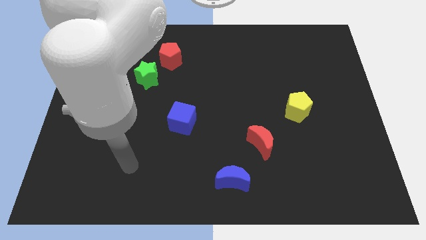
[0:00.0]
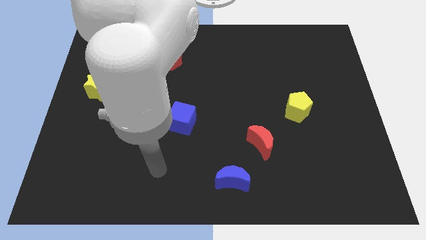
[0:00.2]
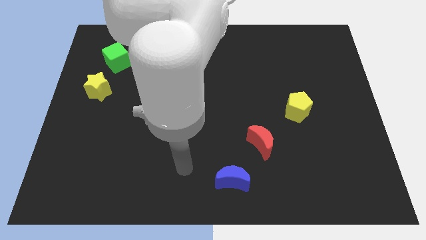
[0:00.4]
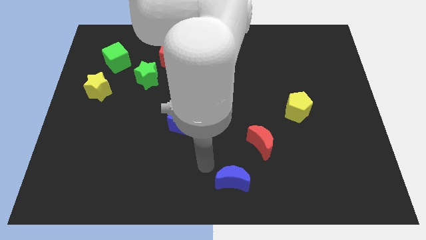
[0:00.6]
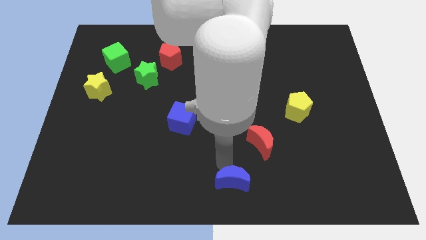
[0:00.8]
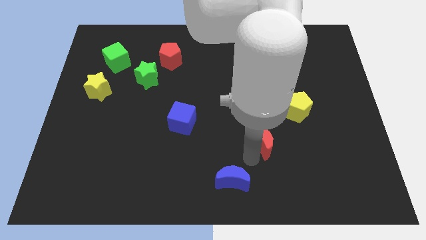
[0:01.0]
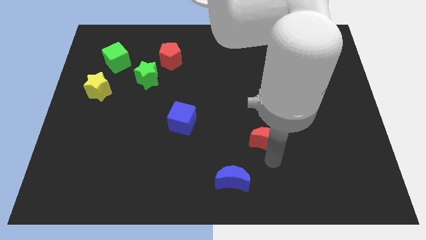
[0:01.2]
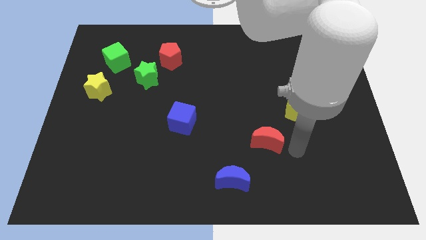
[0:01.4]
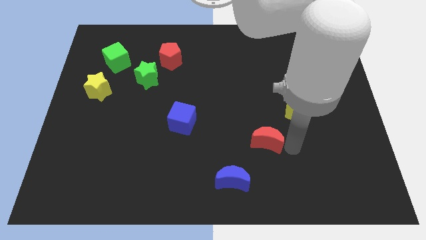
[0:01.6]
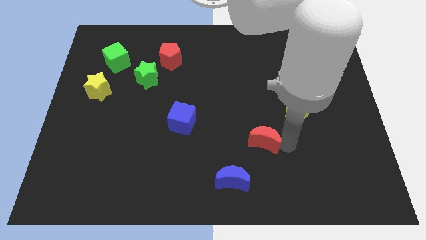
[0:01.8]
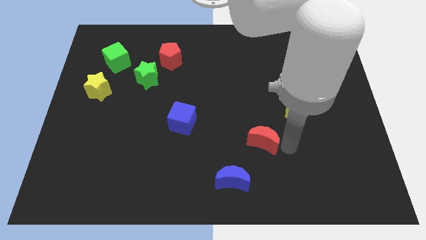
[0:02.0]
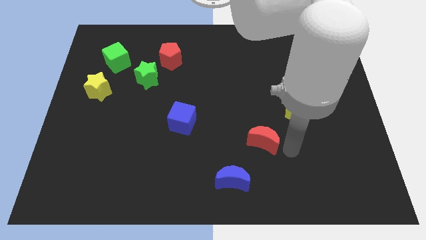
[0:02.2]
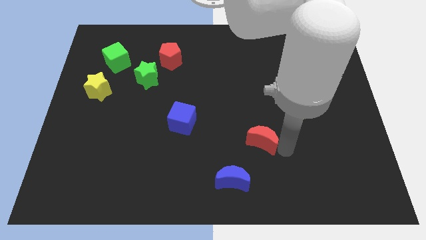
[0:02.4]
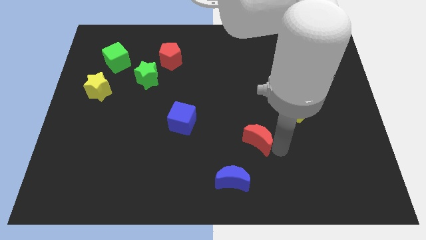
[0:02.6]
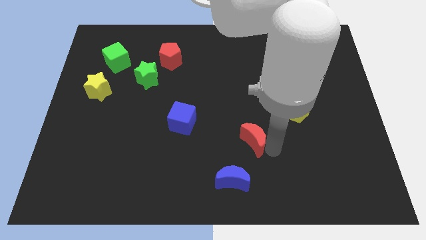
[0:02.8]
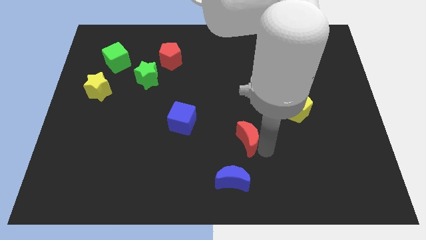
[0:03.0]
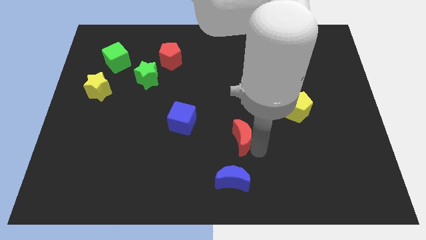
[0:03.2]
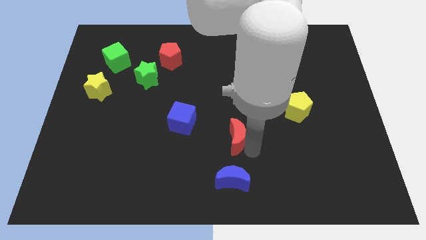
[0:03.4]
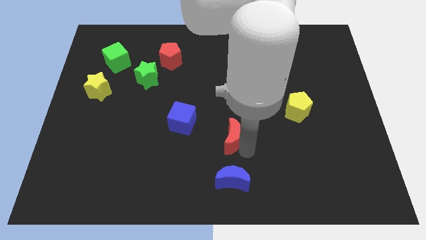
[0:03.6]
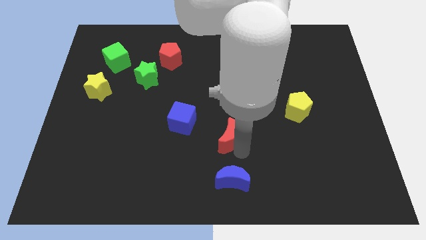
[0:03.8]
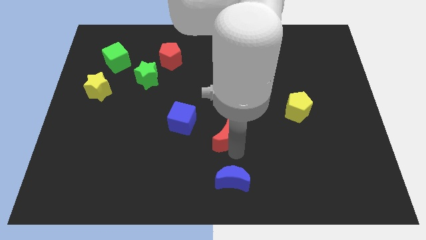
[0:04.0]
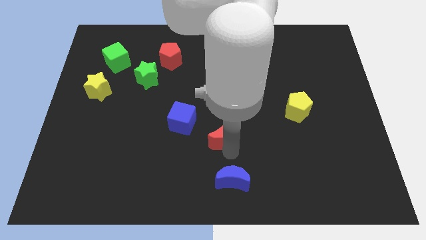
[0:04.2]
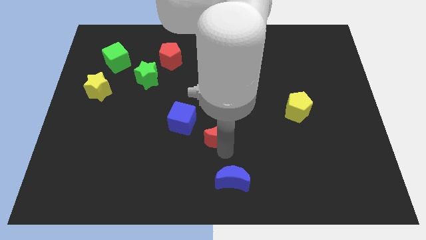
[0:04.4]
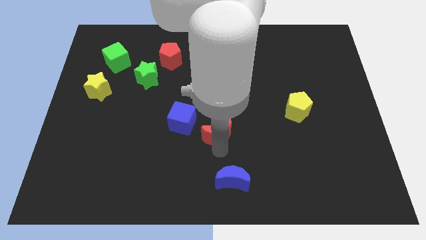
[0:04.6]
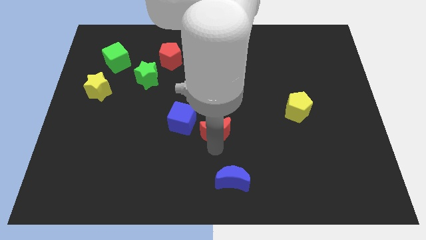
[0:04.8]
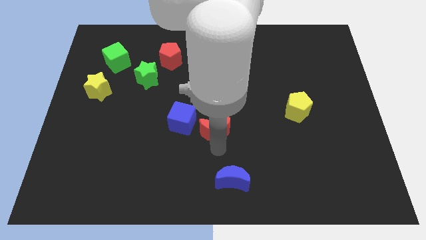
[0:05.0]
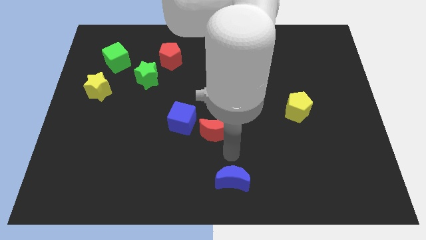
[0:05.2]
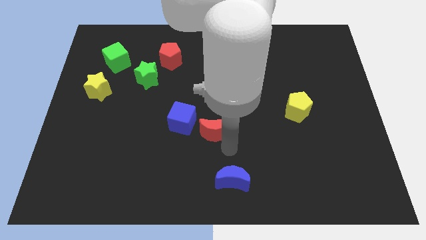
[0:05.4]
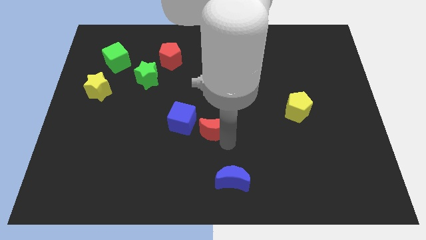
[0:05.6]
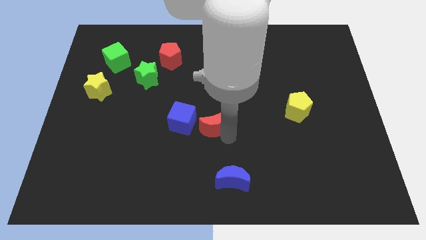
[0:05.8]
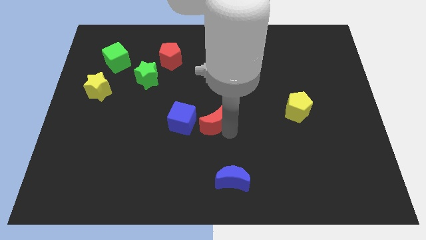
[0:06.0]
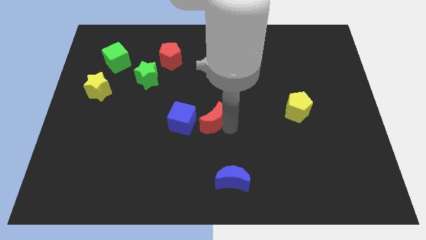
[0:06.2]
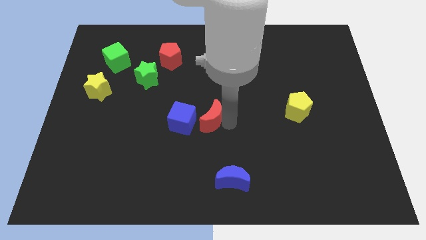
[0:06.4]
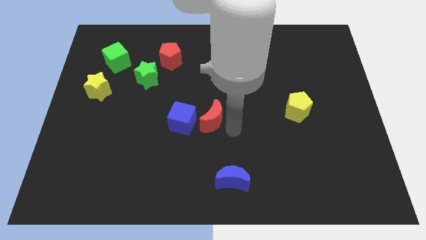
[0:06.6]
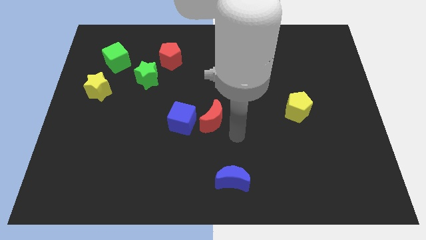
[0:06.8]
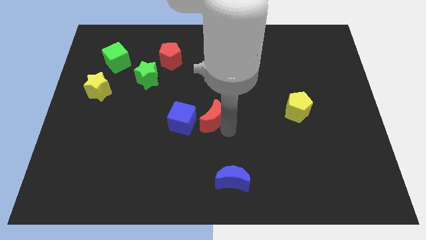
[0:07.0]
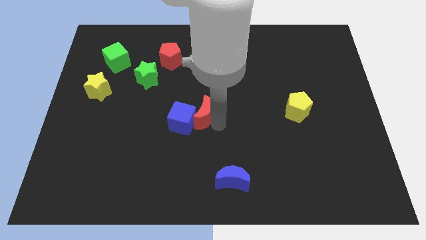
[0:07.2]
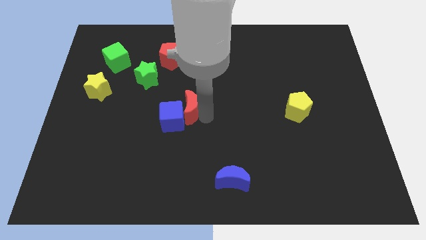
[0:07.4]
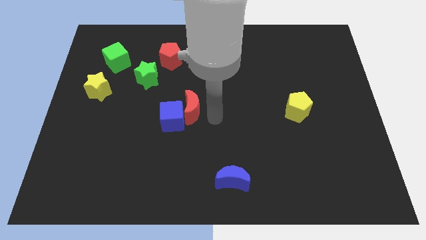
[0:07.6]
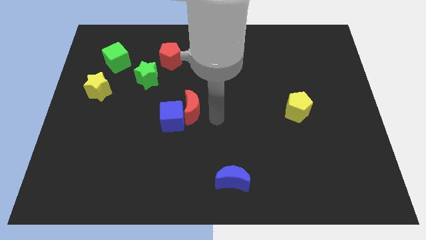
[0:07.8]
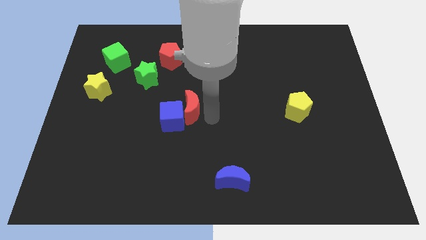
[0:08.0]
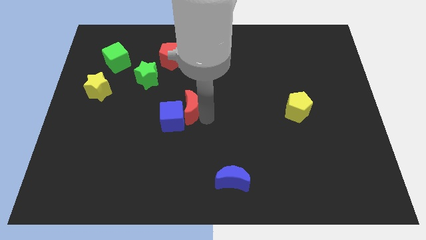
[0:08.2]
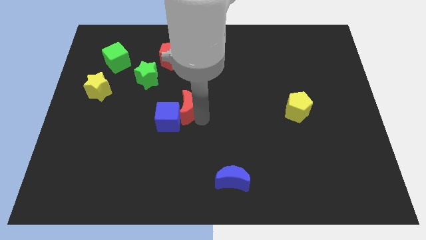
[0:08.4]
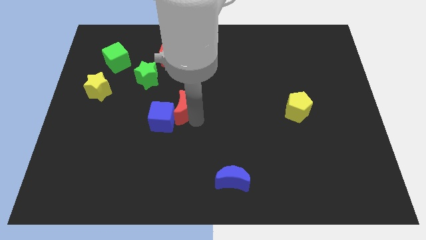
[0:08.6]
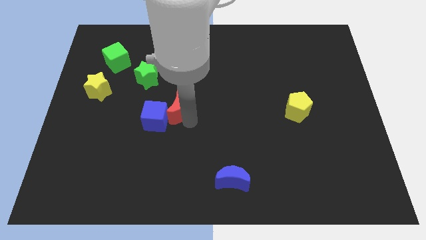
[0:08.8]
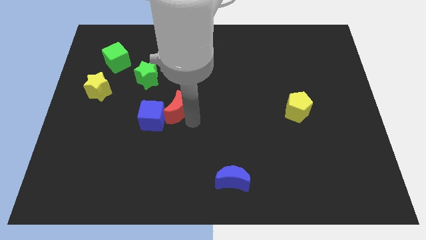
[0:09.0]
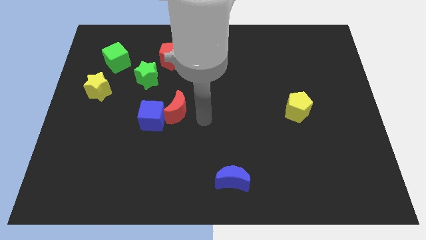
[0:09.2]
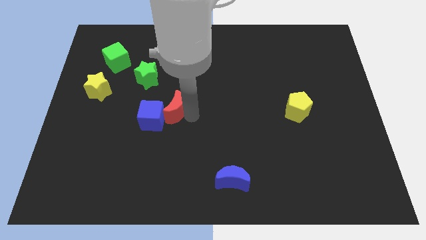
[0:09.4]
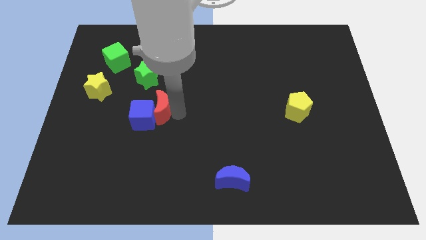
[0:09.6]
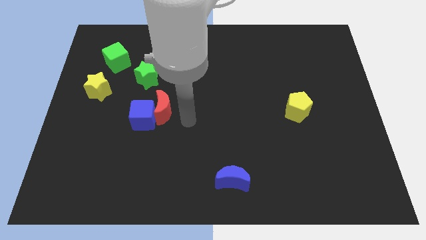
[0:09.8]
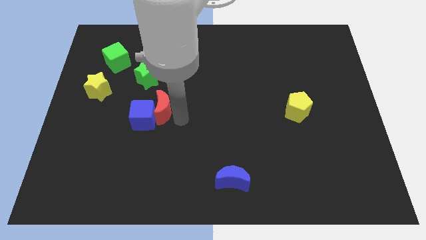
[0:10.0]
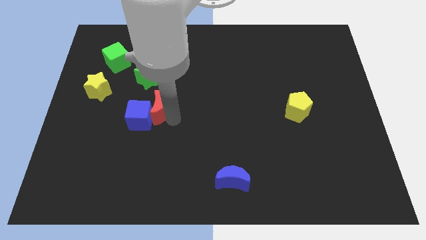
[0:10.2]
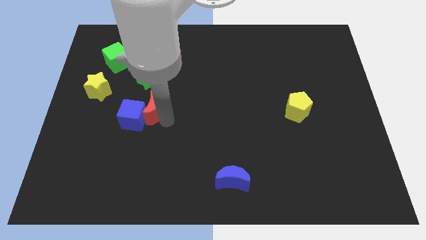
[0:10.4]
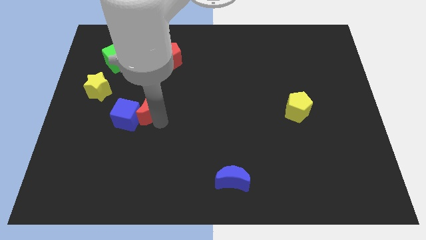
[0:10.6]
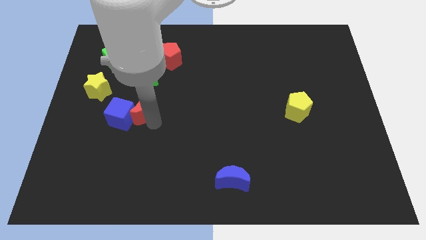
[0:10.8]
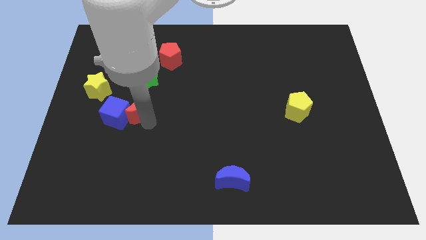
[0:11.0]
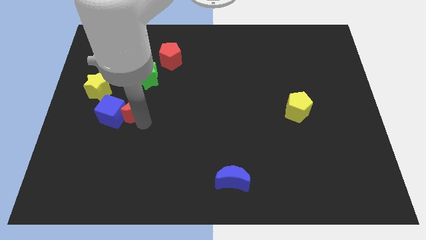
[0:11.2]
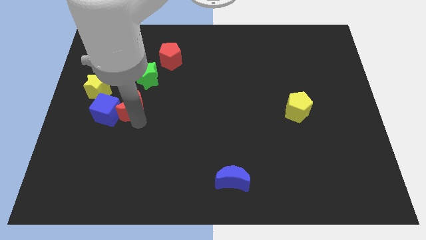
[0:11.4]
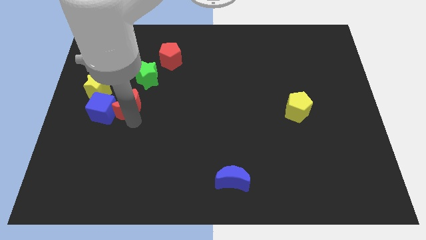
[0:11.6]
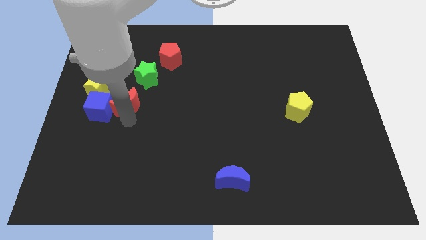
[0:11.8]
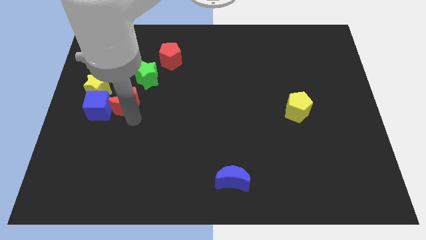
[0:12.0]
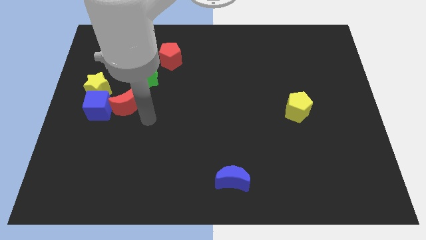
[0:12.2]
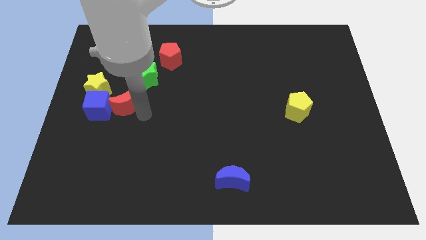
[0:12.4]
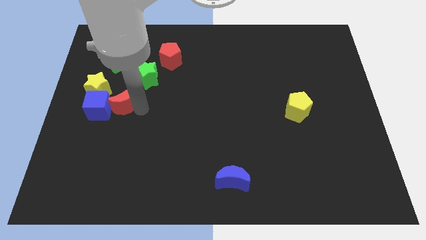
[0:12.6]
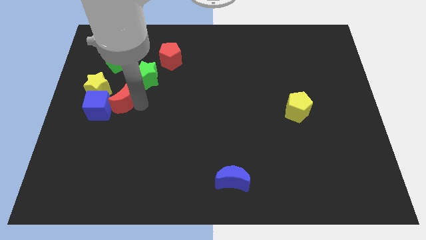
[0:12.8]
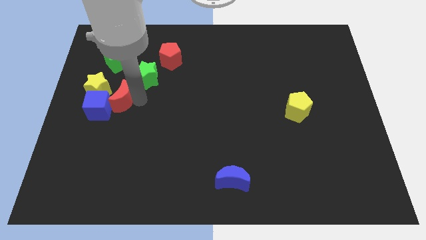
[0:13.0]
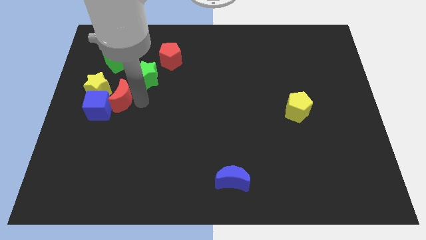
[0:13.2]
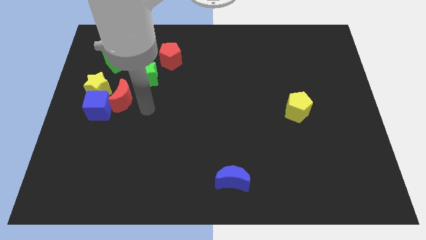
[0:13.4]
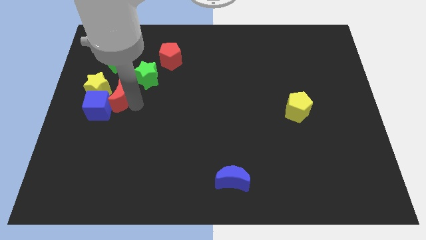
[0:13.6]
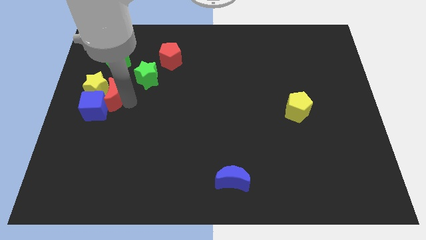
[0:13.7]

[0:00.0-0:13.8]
push the red moon towards the yellow star
